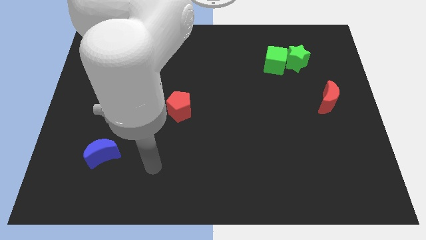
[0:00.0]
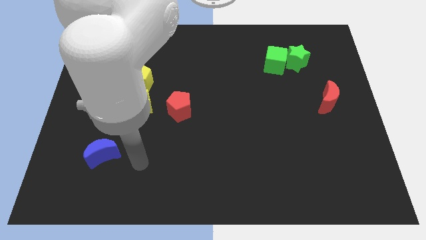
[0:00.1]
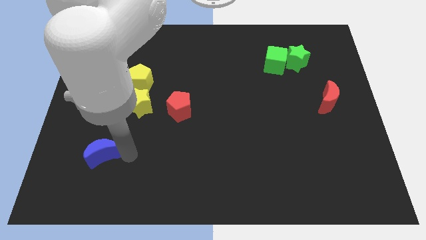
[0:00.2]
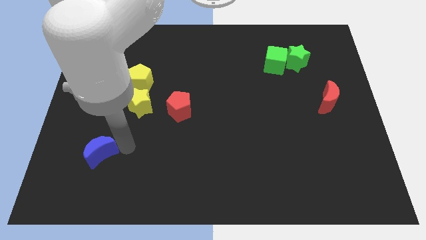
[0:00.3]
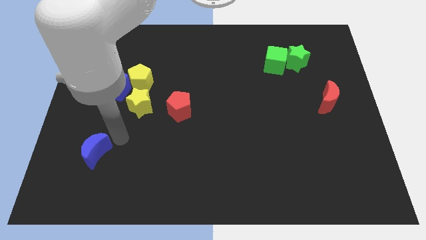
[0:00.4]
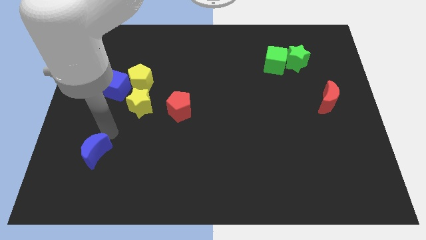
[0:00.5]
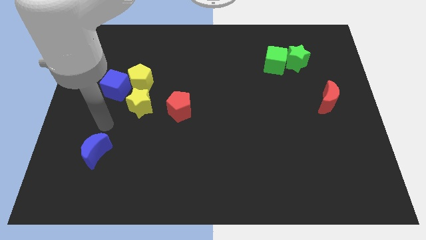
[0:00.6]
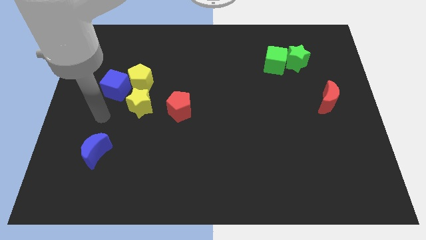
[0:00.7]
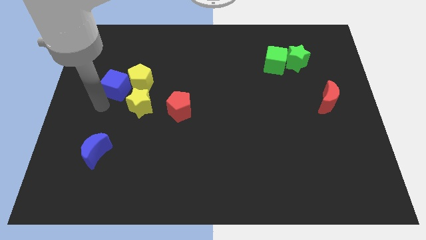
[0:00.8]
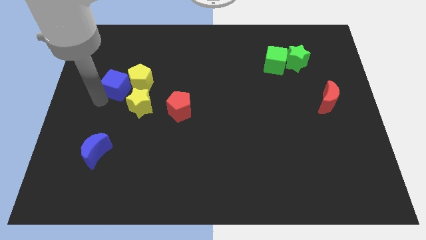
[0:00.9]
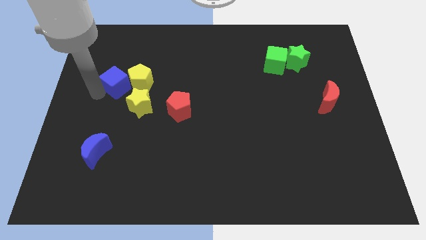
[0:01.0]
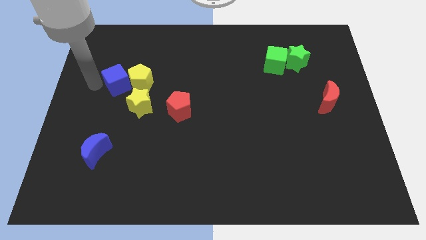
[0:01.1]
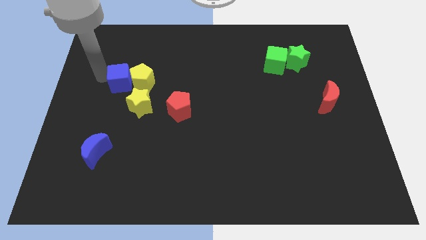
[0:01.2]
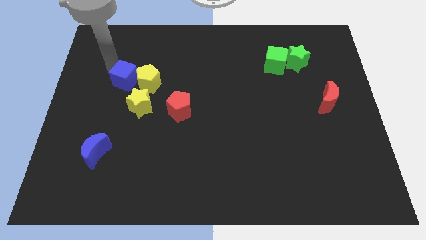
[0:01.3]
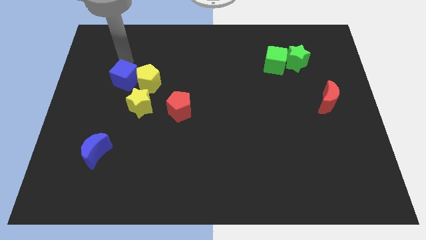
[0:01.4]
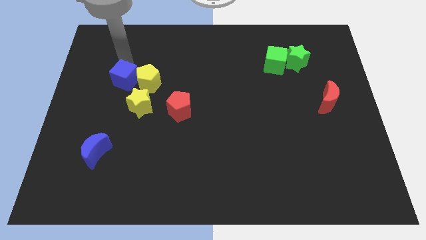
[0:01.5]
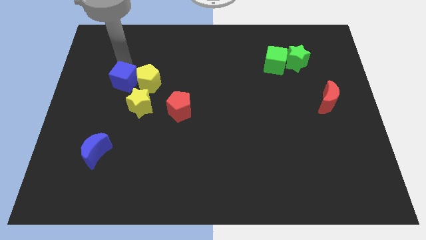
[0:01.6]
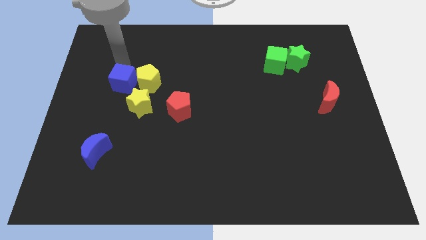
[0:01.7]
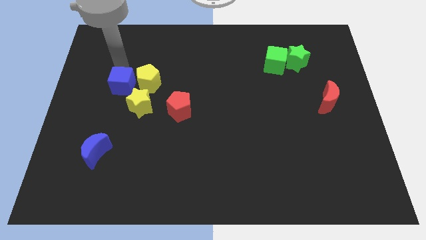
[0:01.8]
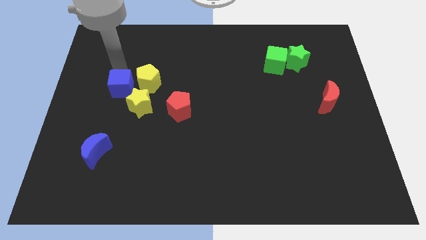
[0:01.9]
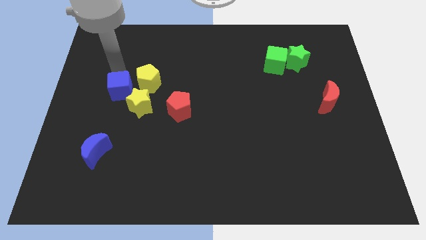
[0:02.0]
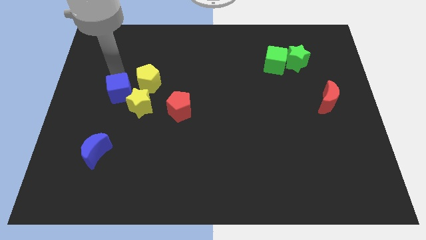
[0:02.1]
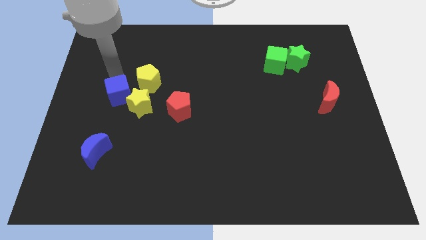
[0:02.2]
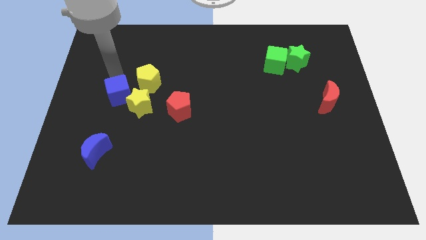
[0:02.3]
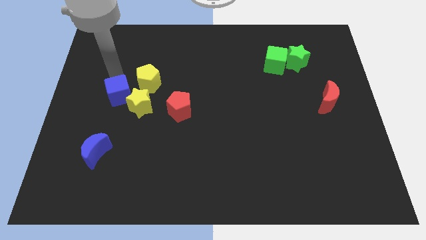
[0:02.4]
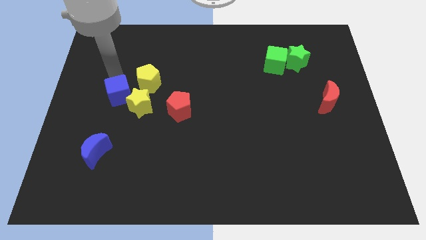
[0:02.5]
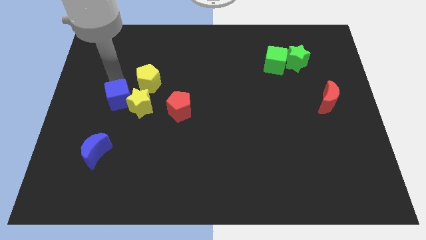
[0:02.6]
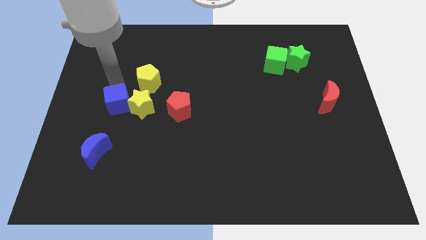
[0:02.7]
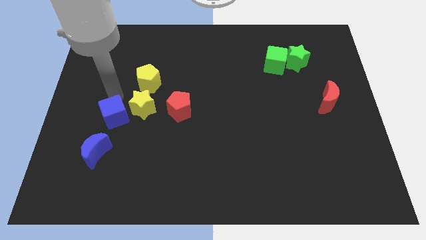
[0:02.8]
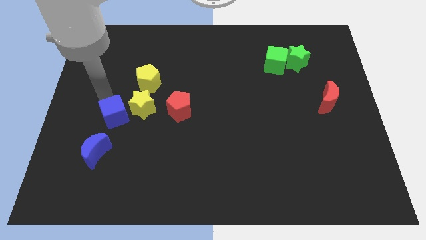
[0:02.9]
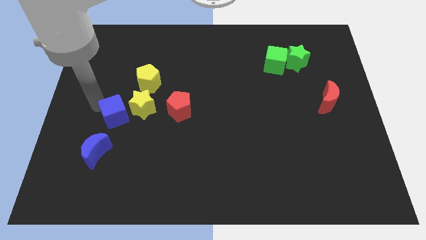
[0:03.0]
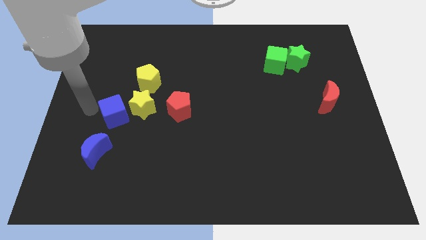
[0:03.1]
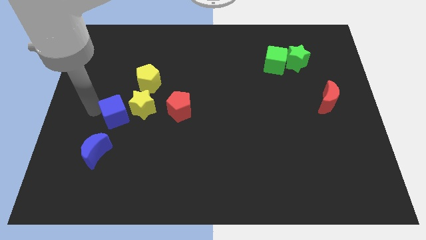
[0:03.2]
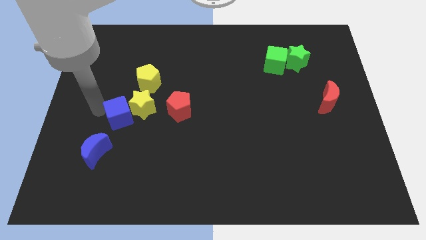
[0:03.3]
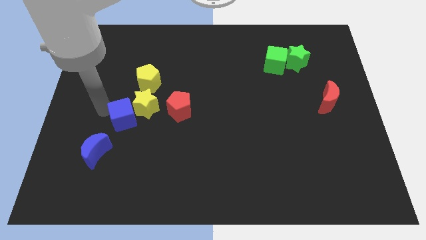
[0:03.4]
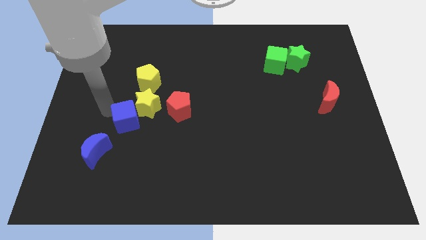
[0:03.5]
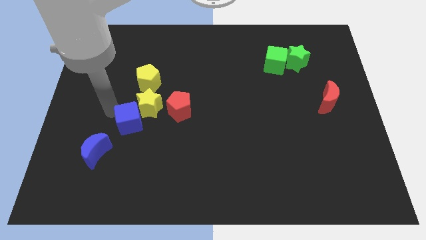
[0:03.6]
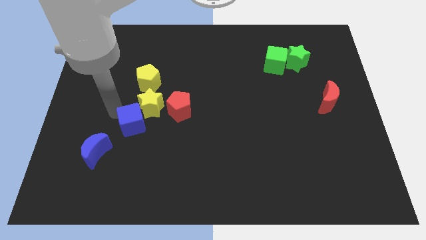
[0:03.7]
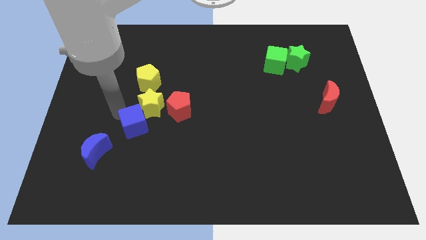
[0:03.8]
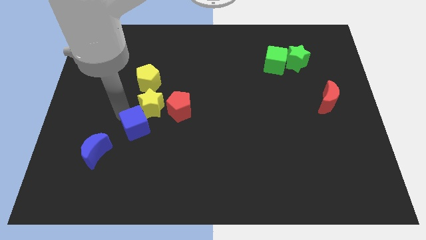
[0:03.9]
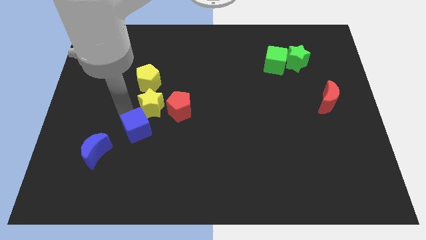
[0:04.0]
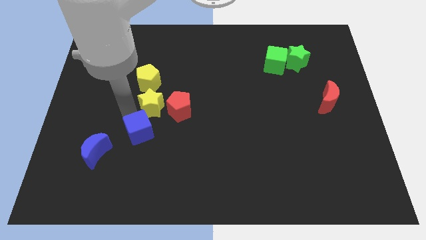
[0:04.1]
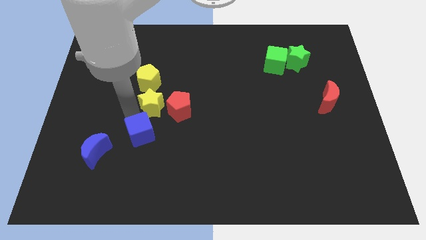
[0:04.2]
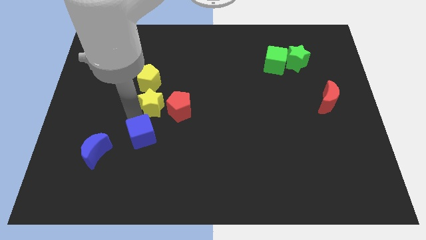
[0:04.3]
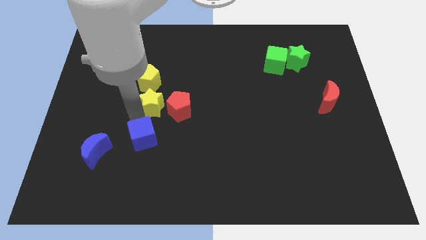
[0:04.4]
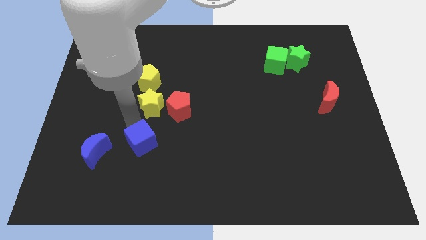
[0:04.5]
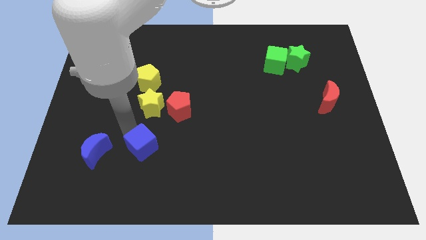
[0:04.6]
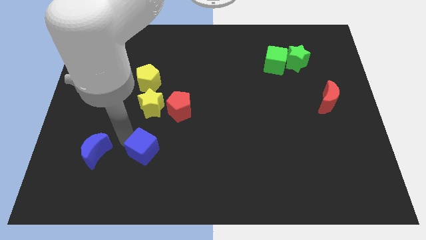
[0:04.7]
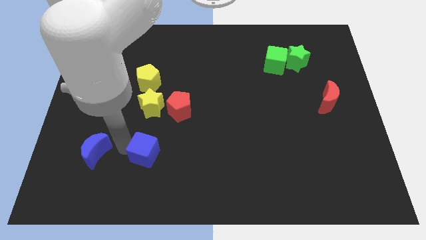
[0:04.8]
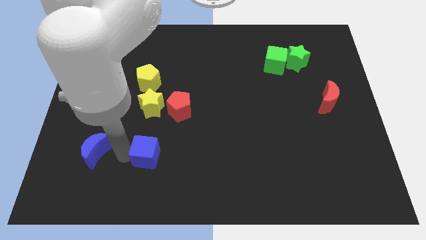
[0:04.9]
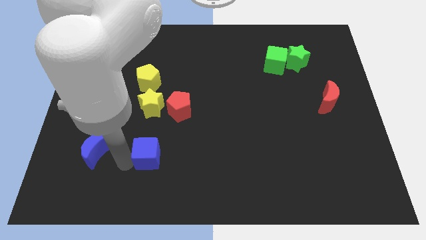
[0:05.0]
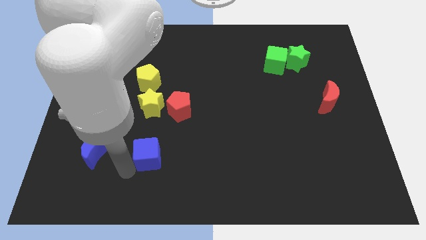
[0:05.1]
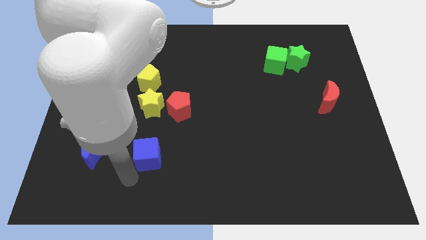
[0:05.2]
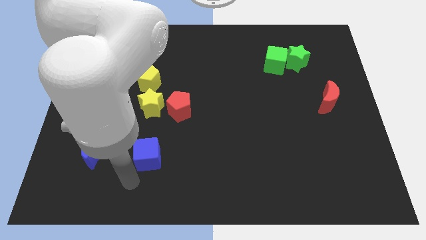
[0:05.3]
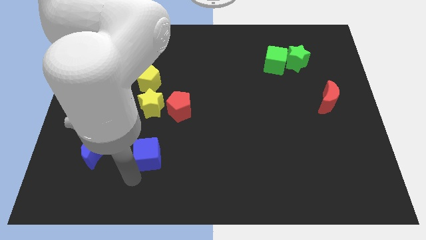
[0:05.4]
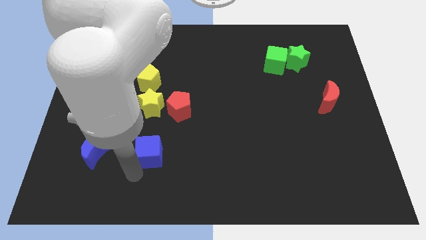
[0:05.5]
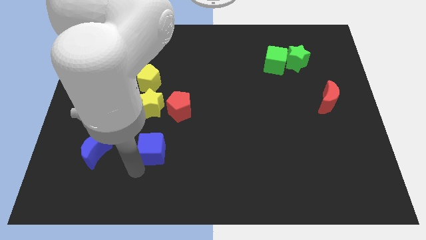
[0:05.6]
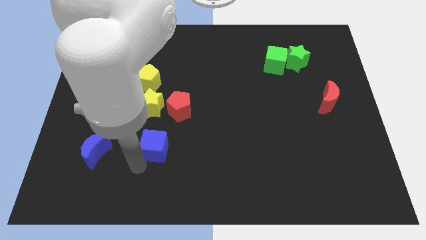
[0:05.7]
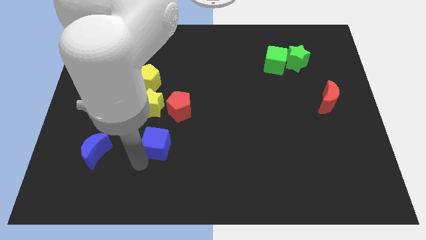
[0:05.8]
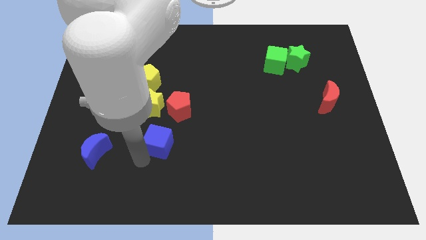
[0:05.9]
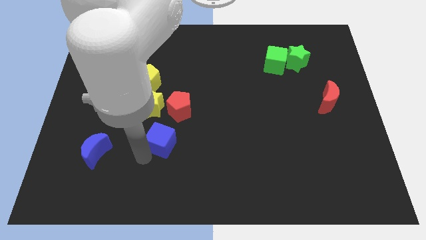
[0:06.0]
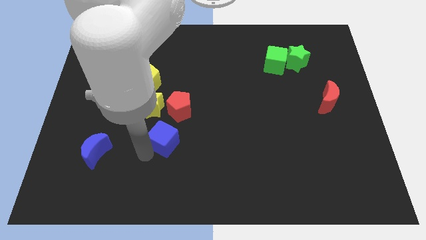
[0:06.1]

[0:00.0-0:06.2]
put the blue cube diagonally down and to the right of the yellow star

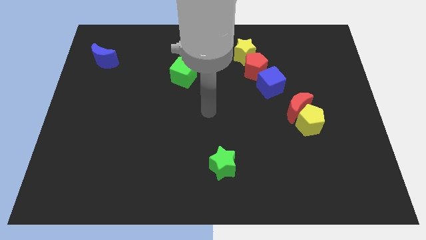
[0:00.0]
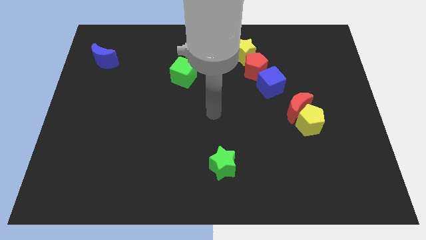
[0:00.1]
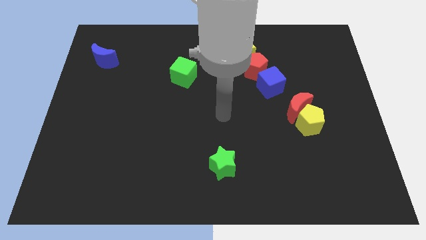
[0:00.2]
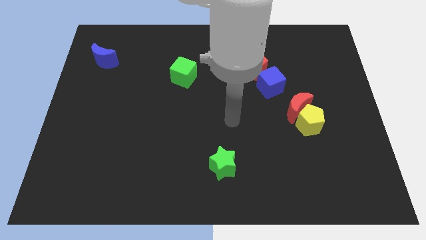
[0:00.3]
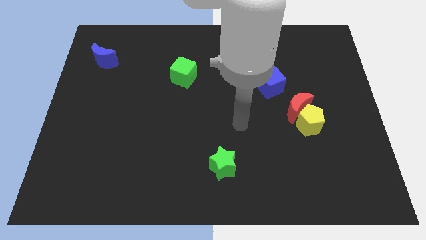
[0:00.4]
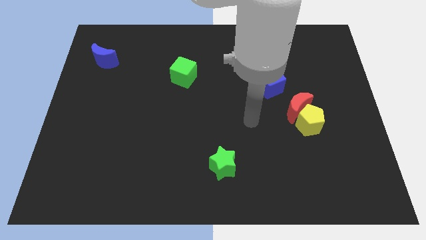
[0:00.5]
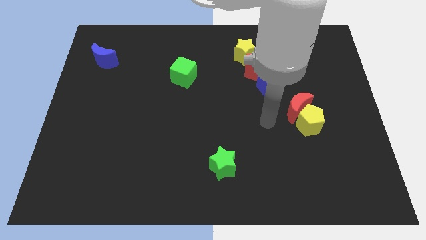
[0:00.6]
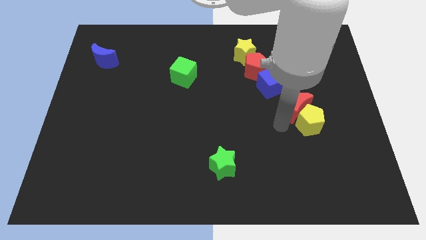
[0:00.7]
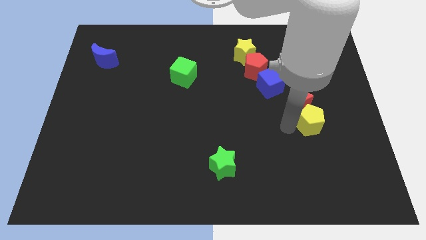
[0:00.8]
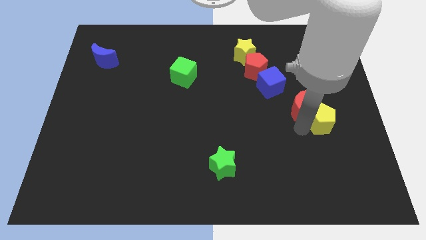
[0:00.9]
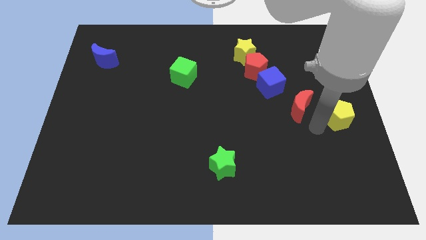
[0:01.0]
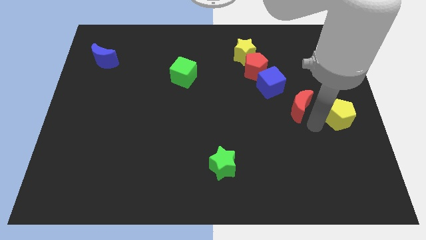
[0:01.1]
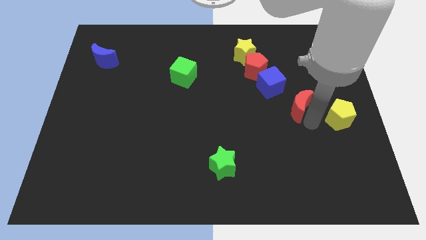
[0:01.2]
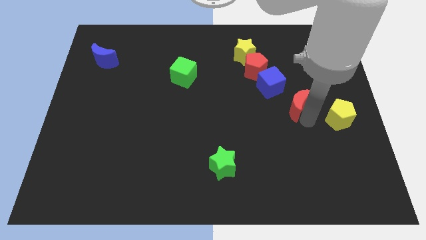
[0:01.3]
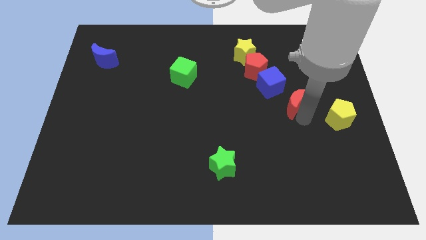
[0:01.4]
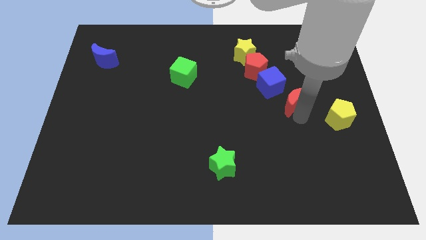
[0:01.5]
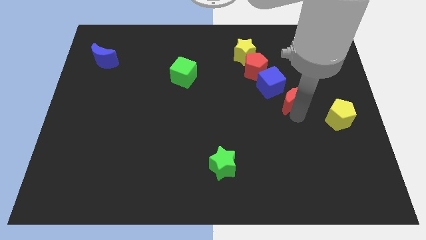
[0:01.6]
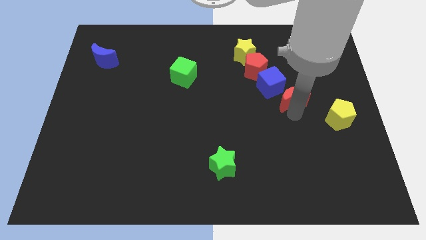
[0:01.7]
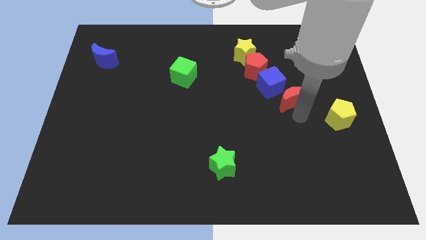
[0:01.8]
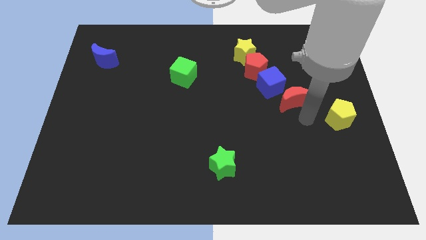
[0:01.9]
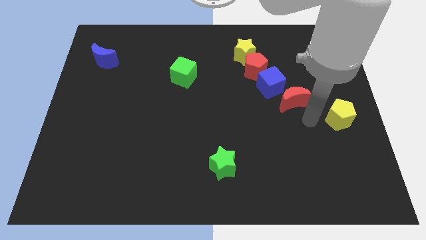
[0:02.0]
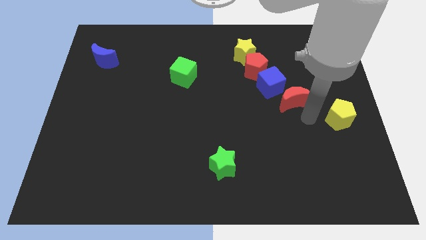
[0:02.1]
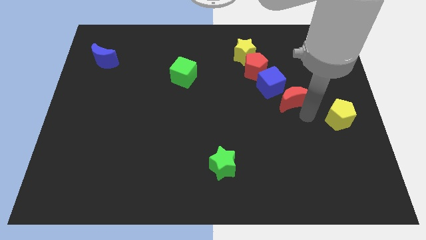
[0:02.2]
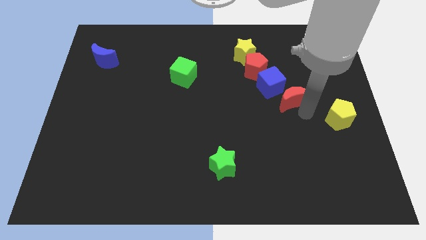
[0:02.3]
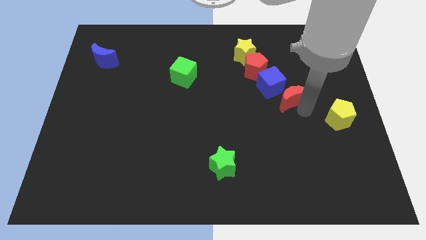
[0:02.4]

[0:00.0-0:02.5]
put the red moon to the bottom right side of the red pentagon
